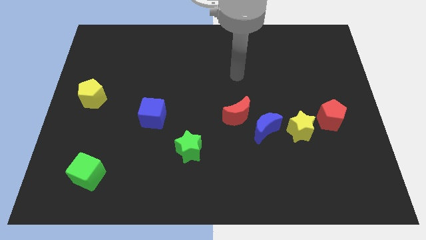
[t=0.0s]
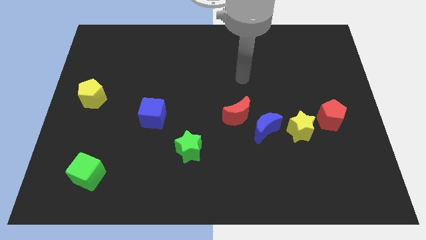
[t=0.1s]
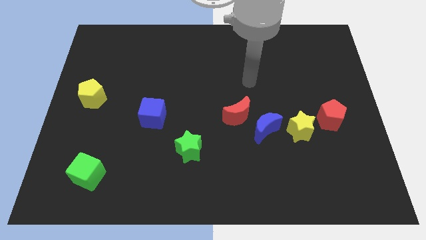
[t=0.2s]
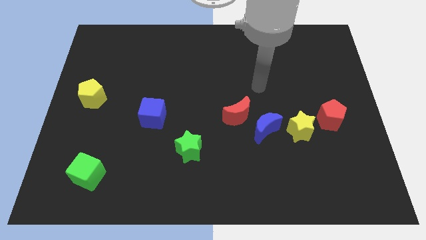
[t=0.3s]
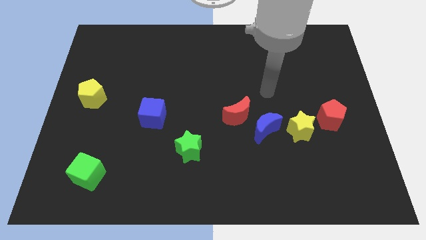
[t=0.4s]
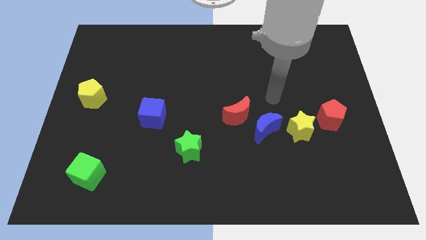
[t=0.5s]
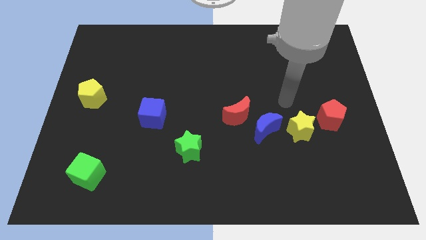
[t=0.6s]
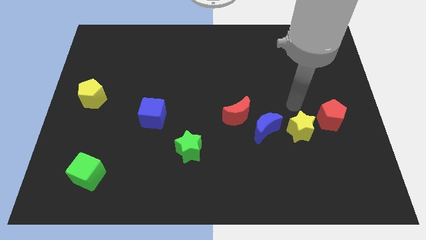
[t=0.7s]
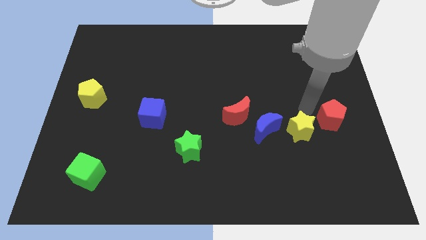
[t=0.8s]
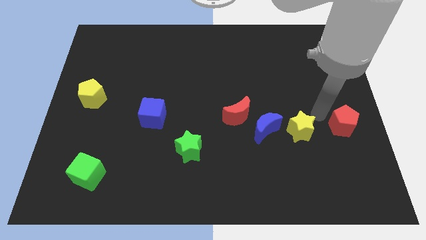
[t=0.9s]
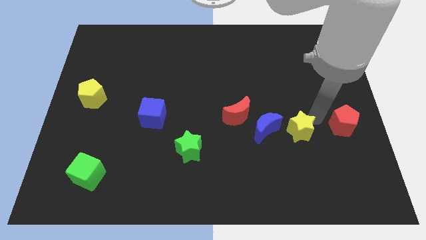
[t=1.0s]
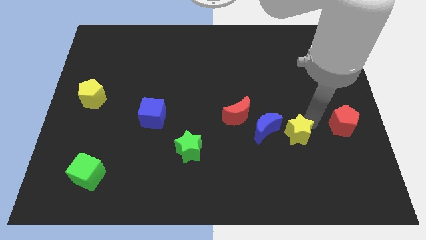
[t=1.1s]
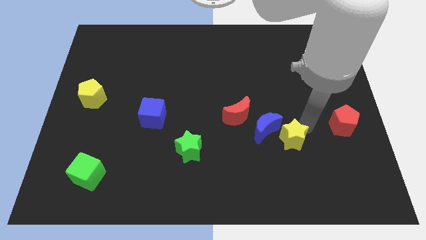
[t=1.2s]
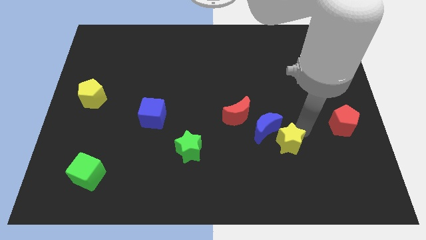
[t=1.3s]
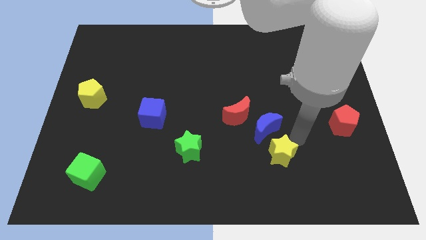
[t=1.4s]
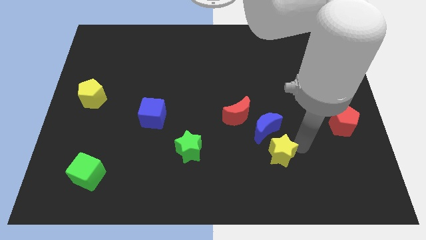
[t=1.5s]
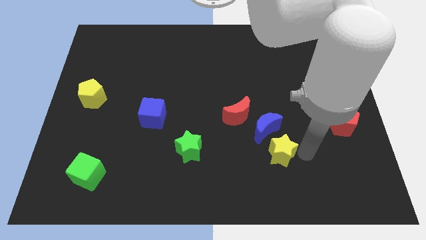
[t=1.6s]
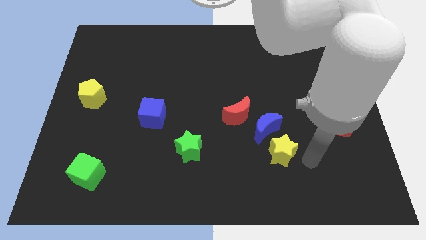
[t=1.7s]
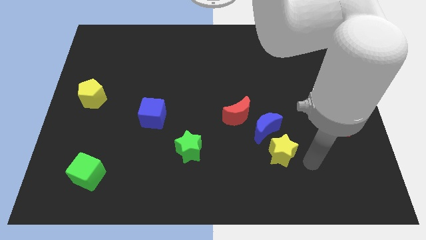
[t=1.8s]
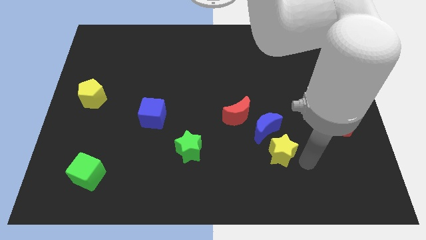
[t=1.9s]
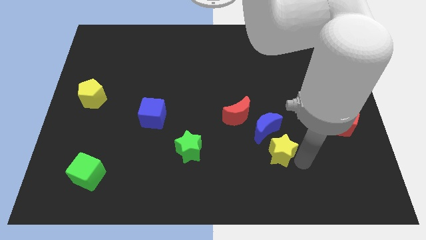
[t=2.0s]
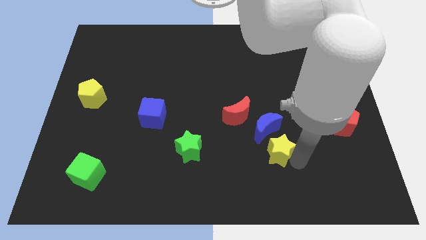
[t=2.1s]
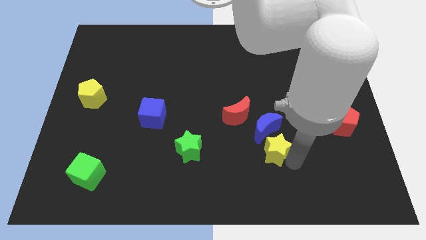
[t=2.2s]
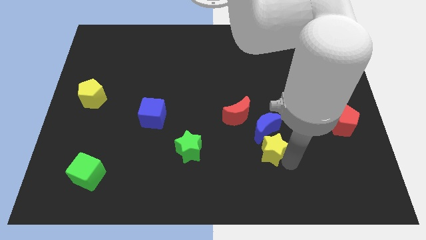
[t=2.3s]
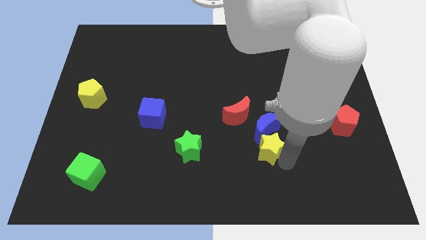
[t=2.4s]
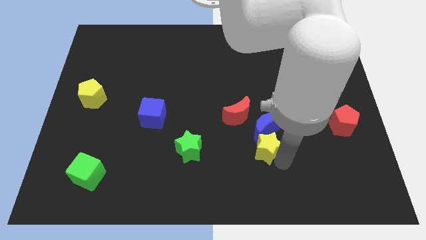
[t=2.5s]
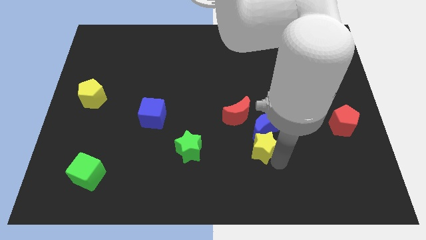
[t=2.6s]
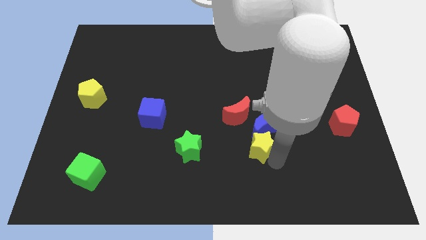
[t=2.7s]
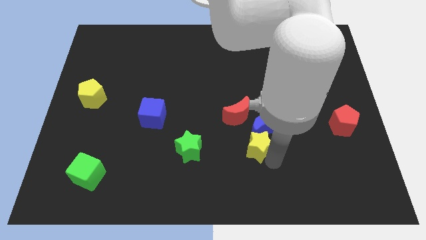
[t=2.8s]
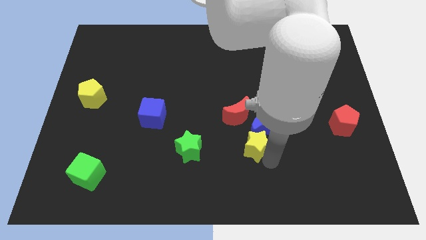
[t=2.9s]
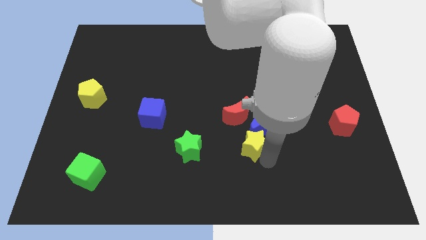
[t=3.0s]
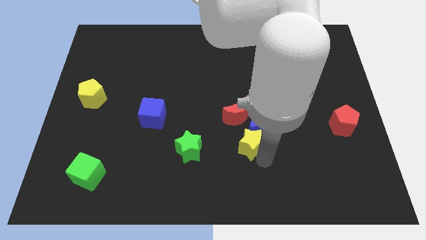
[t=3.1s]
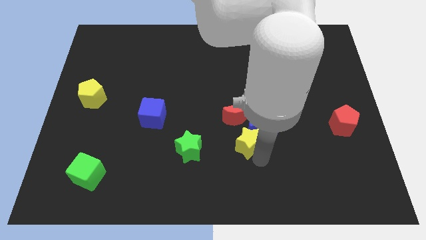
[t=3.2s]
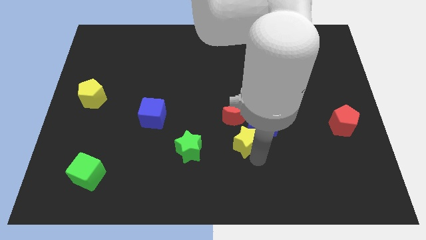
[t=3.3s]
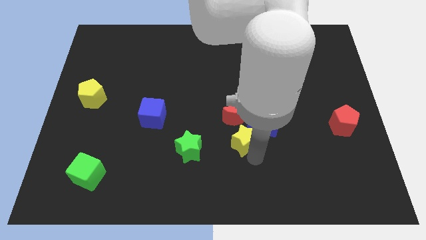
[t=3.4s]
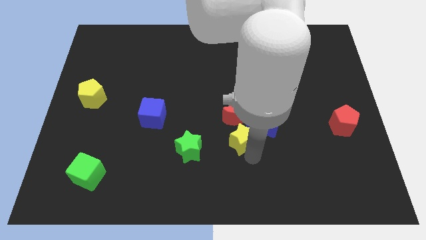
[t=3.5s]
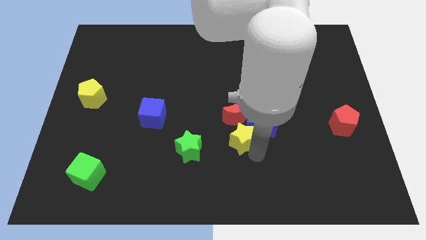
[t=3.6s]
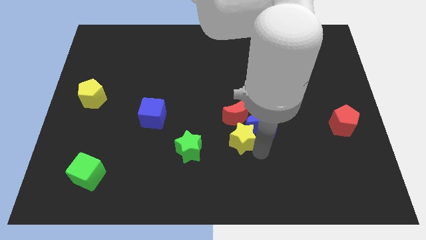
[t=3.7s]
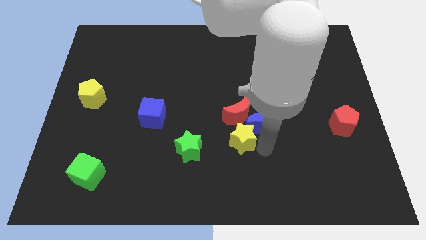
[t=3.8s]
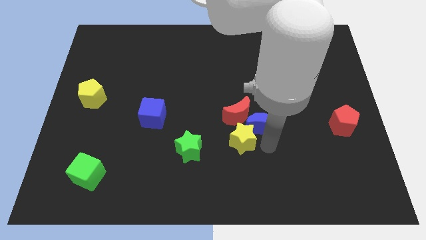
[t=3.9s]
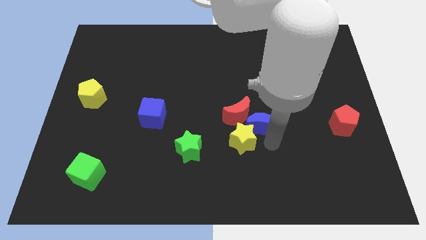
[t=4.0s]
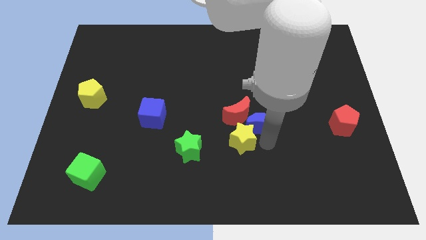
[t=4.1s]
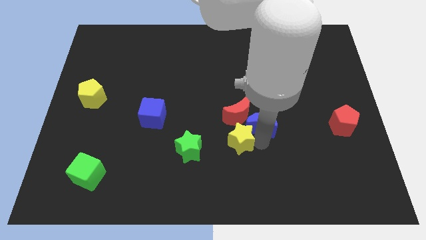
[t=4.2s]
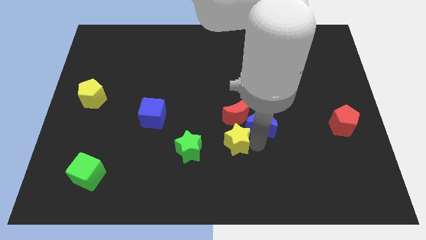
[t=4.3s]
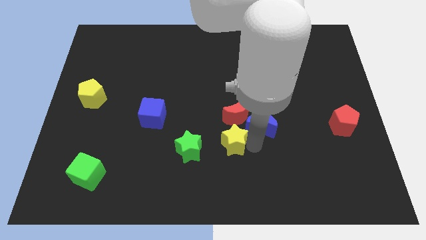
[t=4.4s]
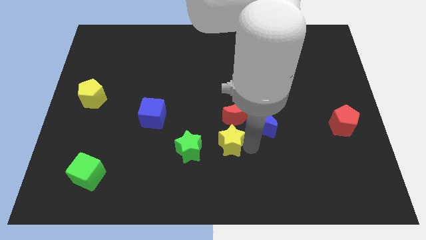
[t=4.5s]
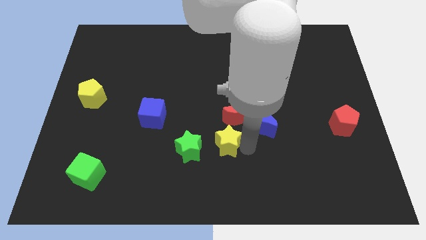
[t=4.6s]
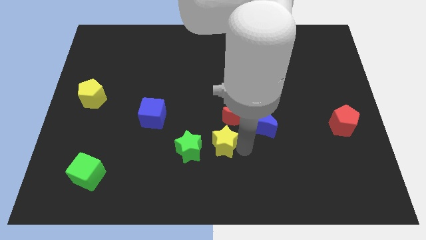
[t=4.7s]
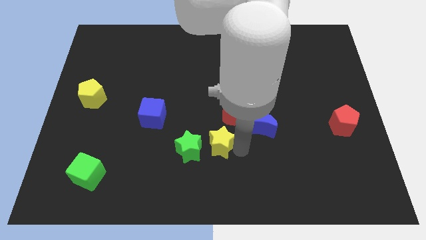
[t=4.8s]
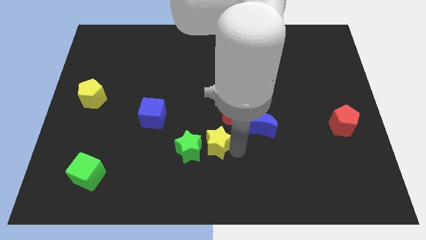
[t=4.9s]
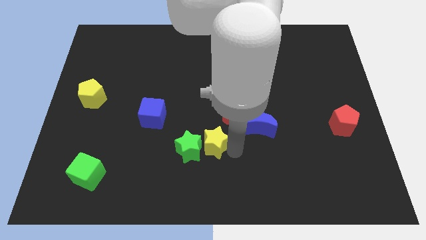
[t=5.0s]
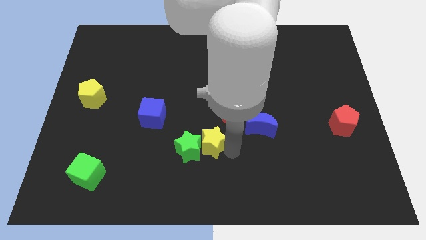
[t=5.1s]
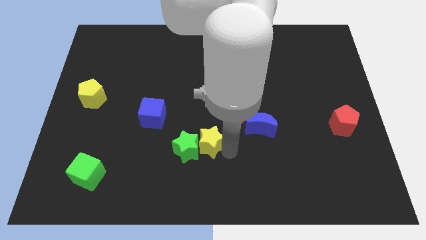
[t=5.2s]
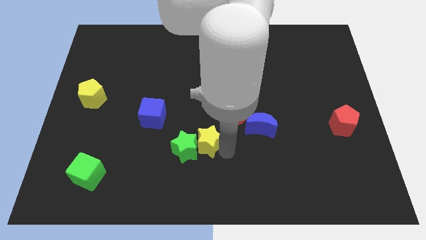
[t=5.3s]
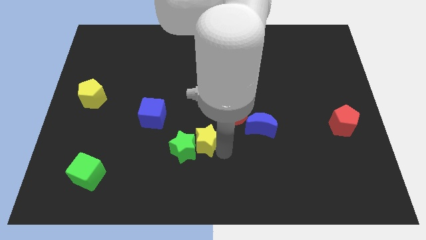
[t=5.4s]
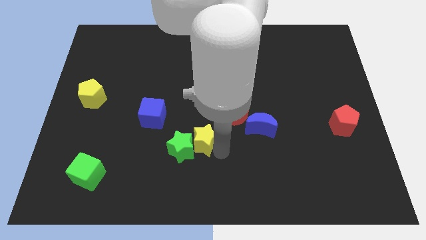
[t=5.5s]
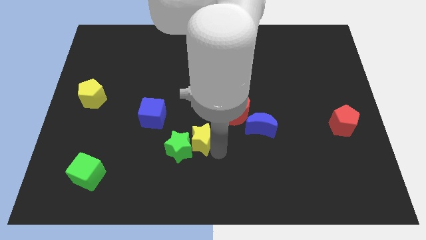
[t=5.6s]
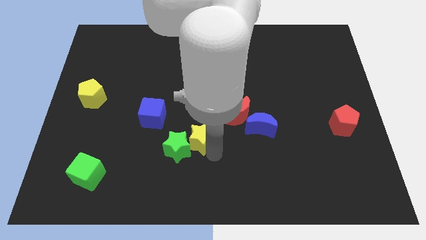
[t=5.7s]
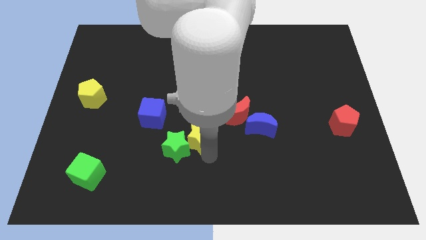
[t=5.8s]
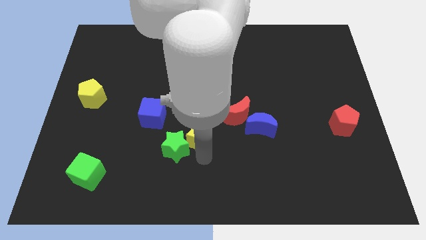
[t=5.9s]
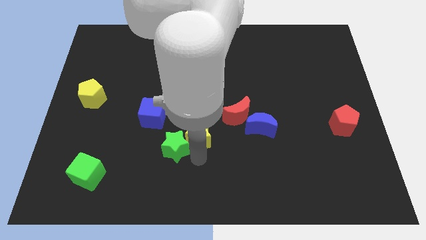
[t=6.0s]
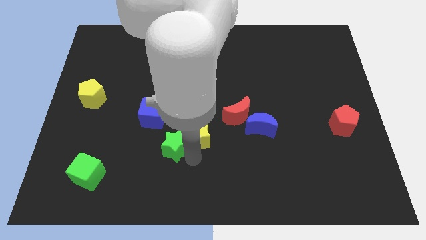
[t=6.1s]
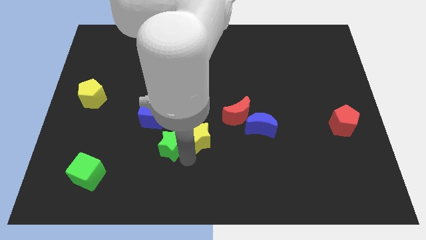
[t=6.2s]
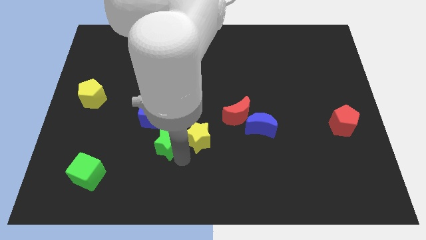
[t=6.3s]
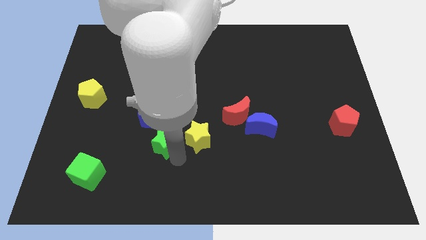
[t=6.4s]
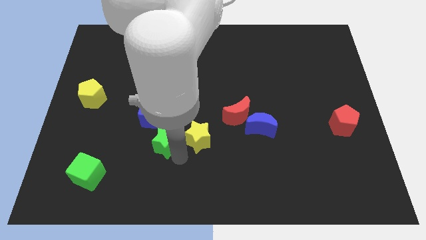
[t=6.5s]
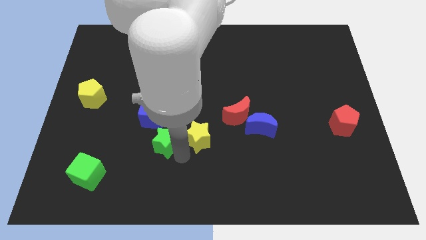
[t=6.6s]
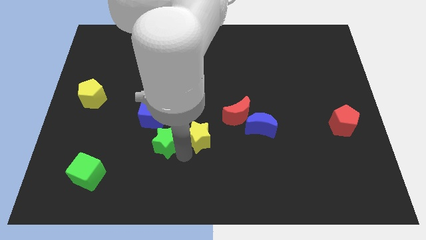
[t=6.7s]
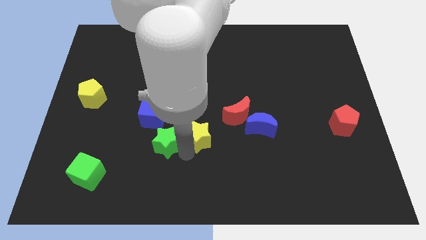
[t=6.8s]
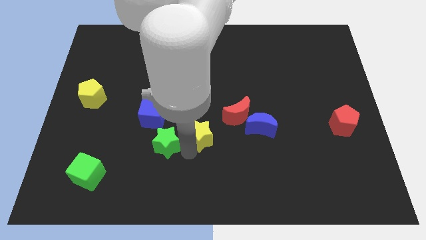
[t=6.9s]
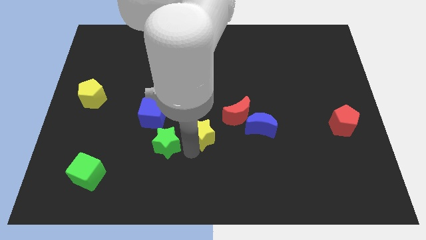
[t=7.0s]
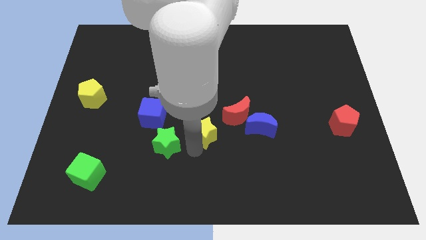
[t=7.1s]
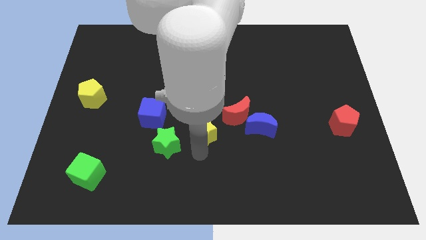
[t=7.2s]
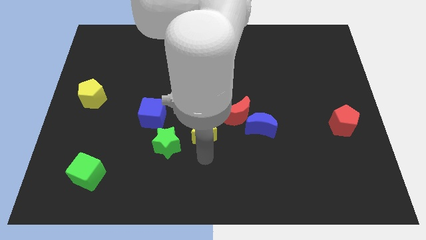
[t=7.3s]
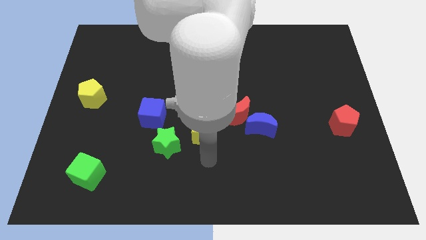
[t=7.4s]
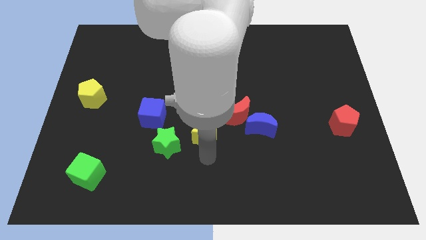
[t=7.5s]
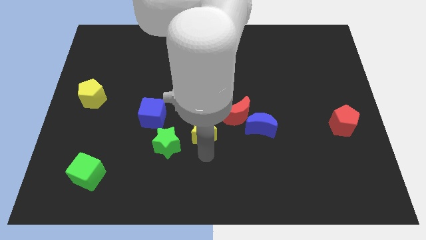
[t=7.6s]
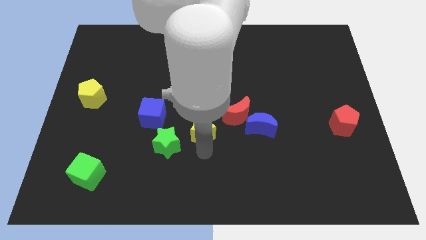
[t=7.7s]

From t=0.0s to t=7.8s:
push the yellow star right of the blue cube
